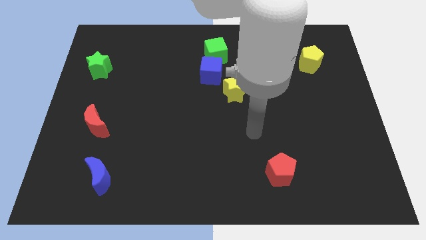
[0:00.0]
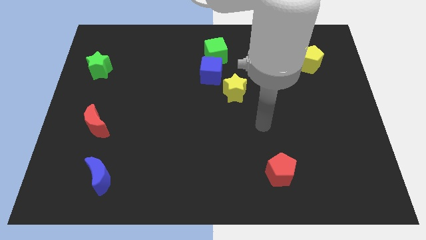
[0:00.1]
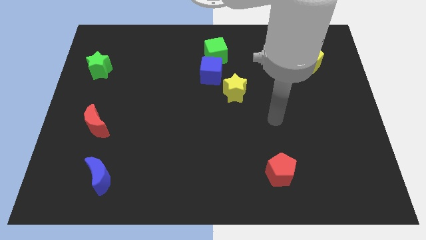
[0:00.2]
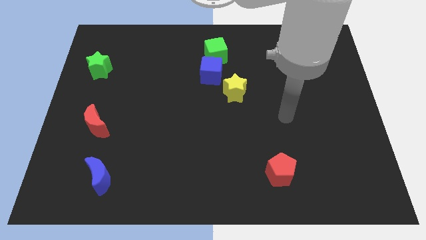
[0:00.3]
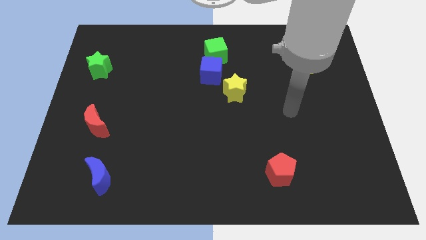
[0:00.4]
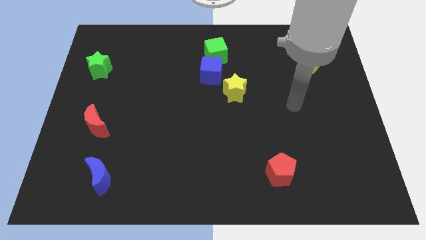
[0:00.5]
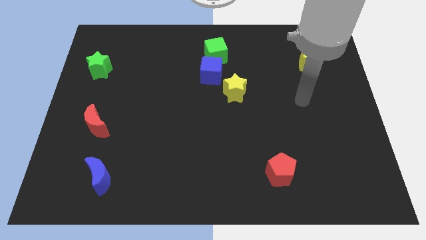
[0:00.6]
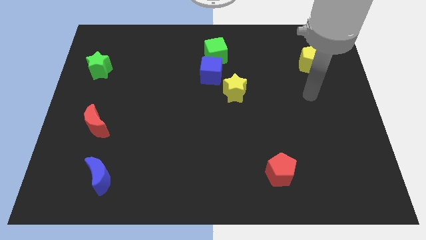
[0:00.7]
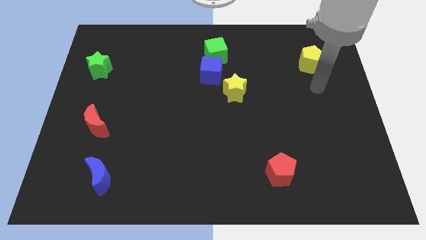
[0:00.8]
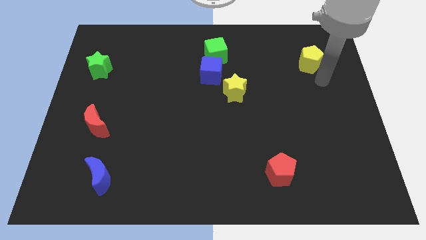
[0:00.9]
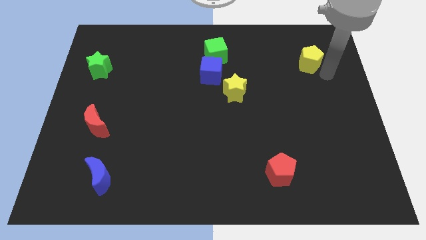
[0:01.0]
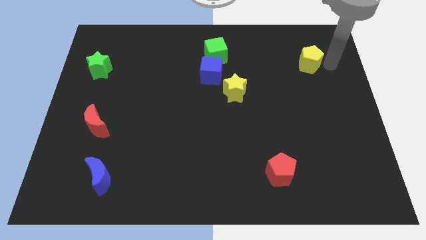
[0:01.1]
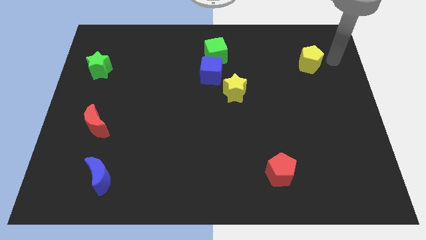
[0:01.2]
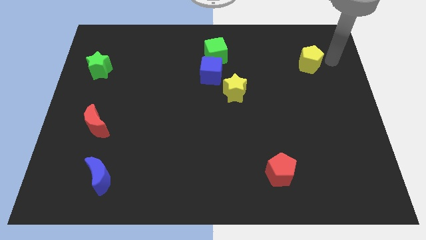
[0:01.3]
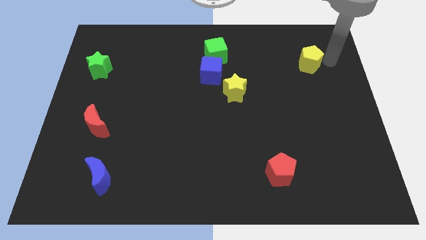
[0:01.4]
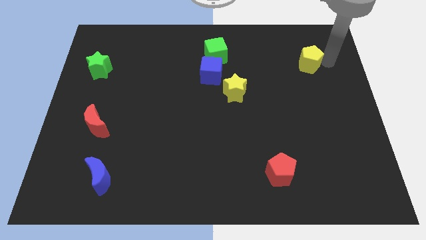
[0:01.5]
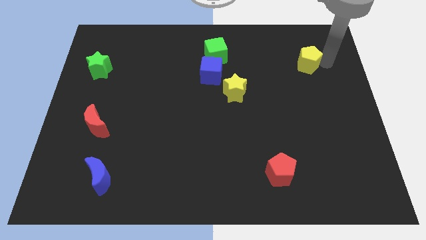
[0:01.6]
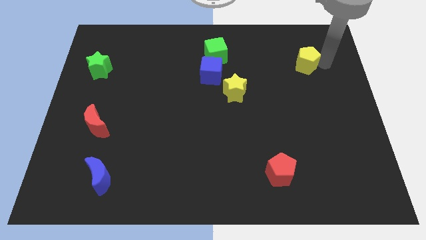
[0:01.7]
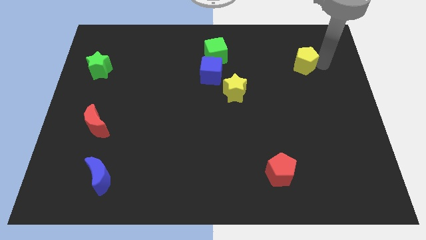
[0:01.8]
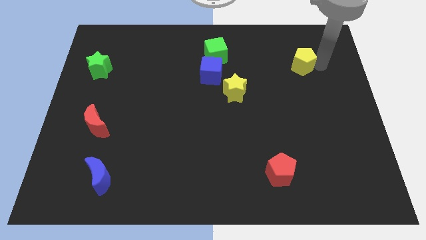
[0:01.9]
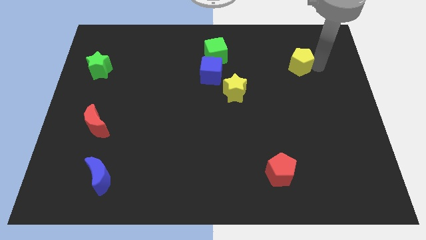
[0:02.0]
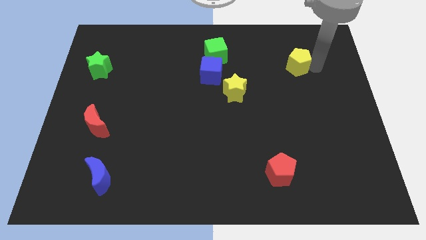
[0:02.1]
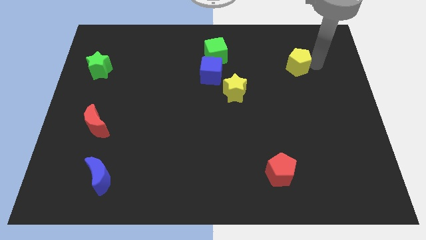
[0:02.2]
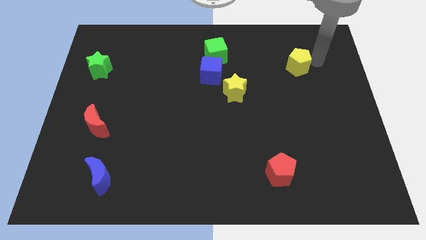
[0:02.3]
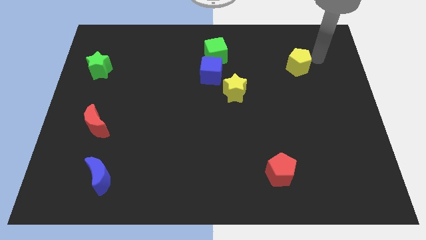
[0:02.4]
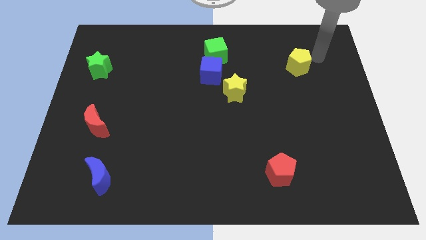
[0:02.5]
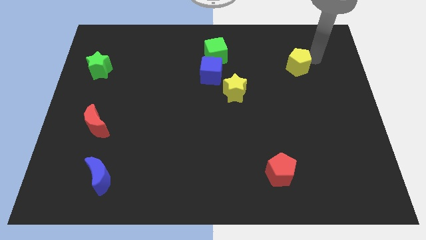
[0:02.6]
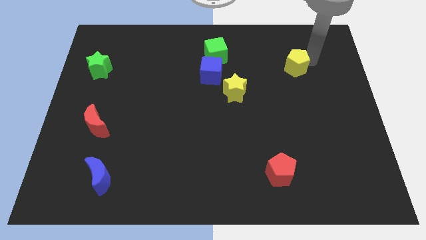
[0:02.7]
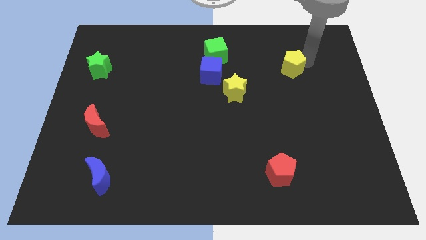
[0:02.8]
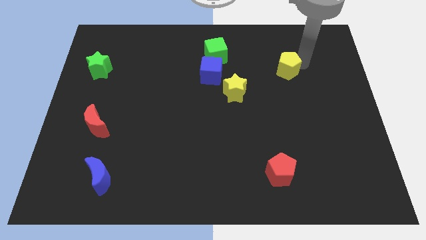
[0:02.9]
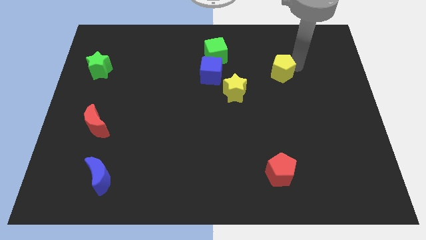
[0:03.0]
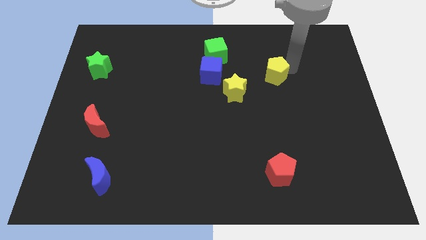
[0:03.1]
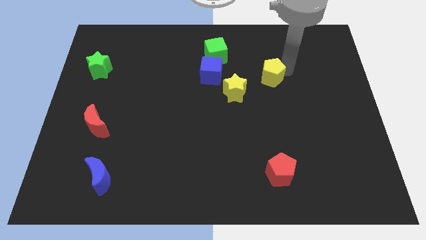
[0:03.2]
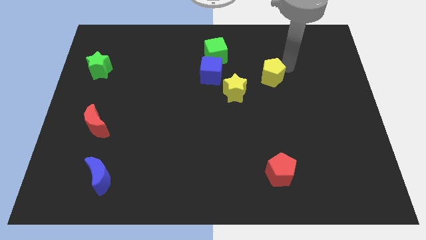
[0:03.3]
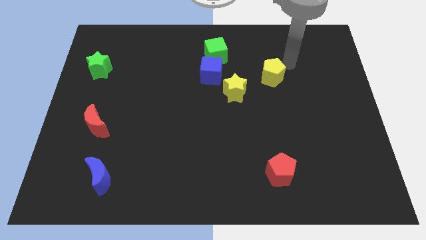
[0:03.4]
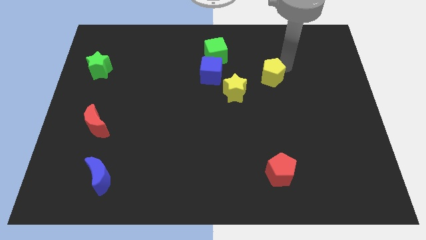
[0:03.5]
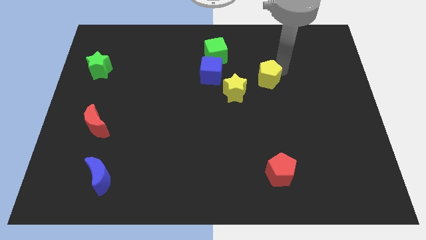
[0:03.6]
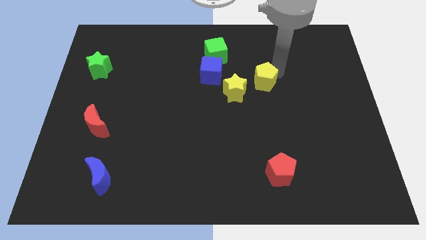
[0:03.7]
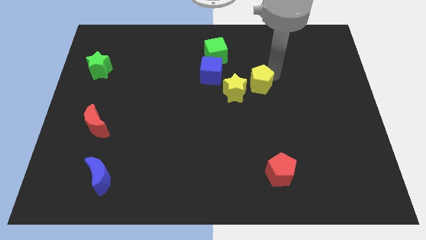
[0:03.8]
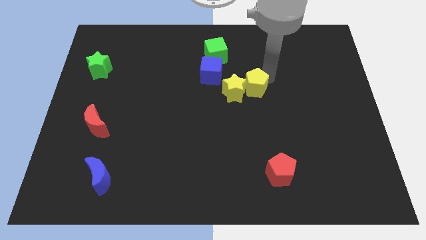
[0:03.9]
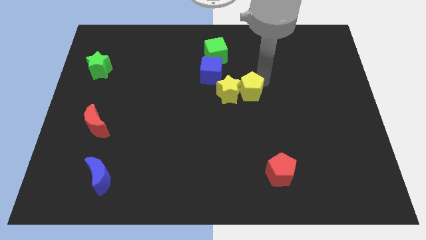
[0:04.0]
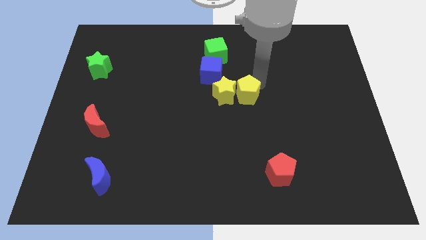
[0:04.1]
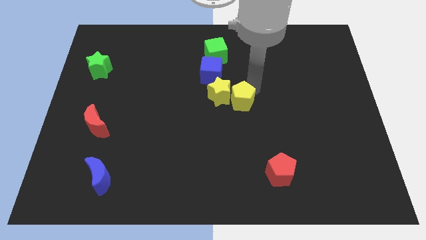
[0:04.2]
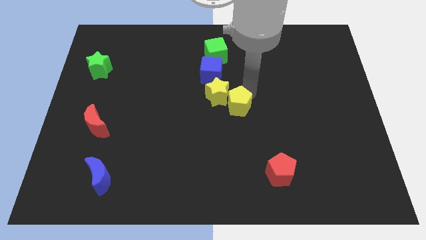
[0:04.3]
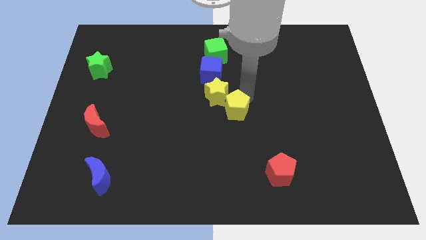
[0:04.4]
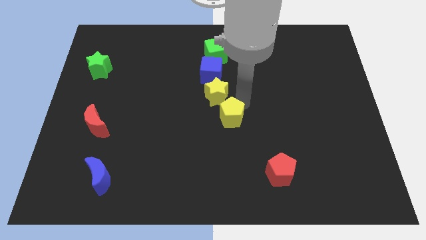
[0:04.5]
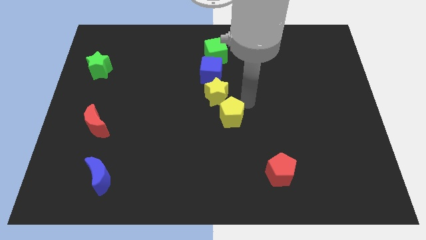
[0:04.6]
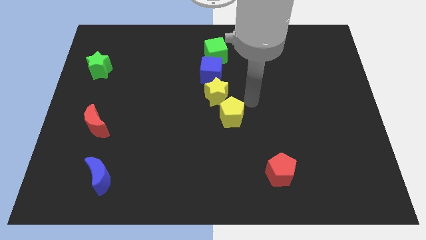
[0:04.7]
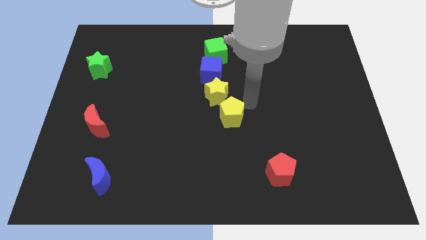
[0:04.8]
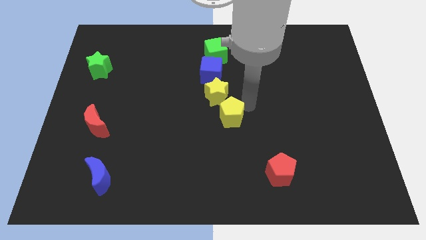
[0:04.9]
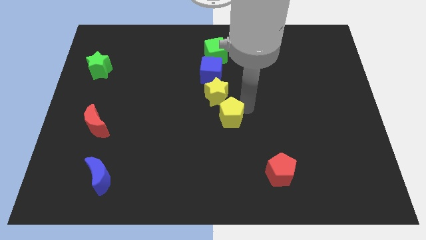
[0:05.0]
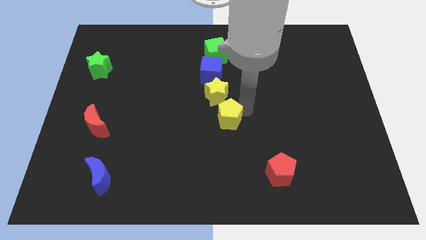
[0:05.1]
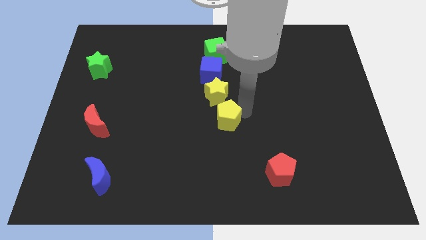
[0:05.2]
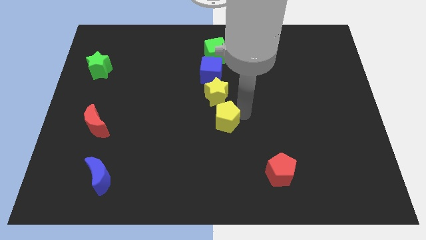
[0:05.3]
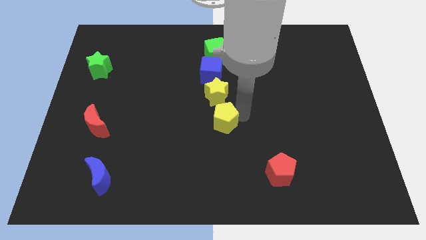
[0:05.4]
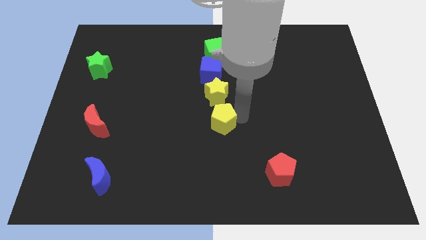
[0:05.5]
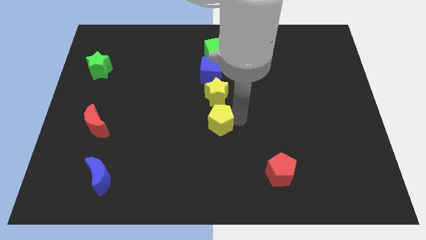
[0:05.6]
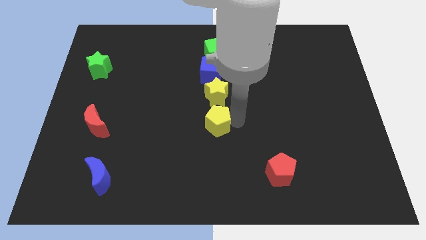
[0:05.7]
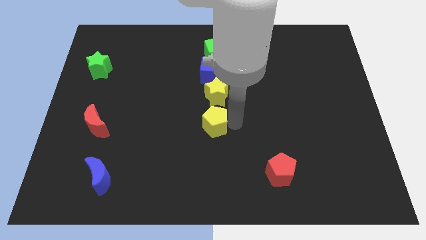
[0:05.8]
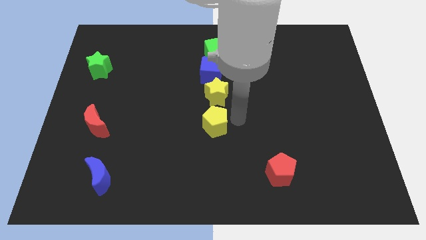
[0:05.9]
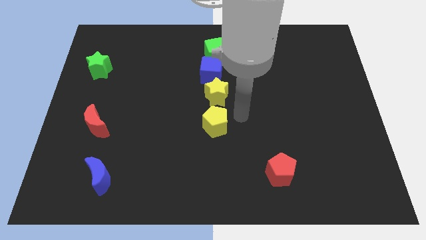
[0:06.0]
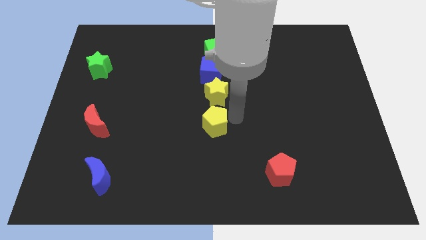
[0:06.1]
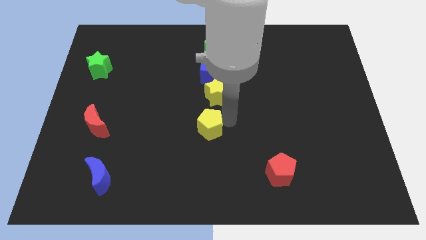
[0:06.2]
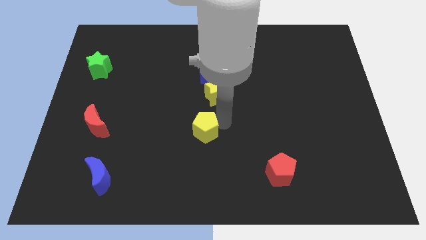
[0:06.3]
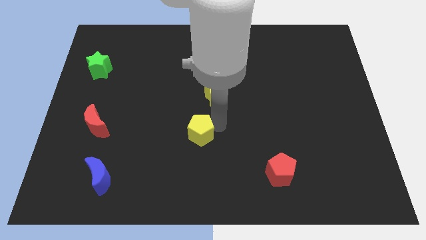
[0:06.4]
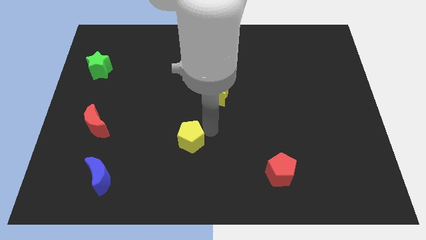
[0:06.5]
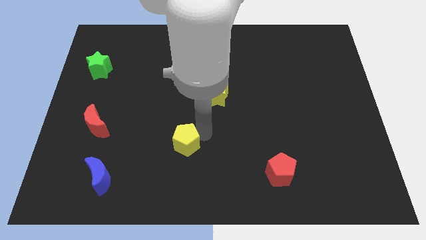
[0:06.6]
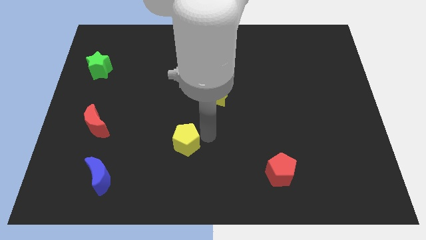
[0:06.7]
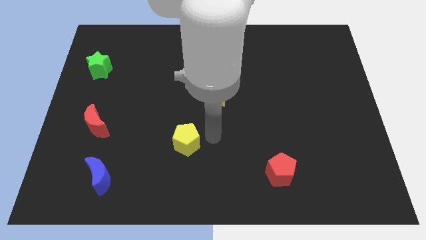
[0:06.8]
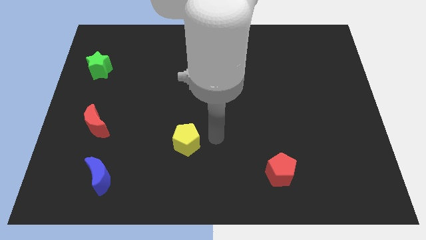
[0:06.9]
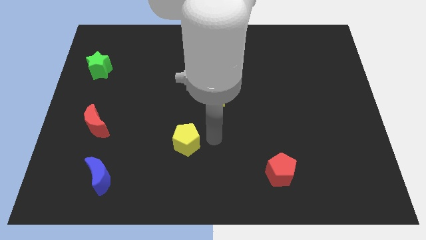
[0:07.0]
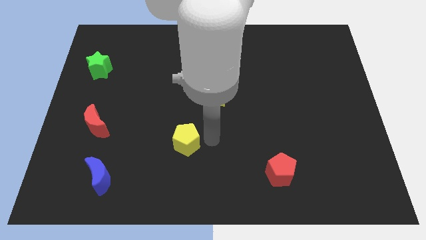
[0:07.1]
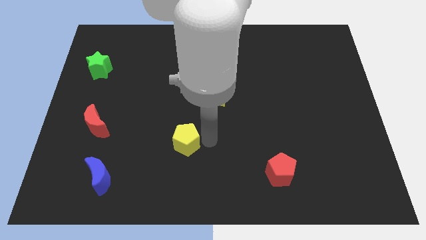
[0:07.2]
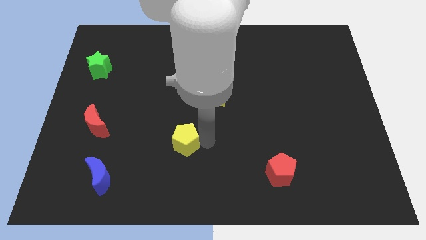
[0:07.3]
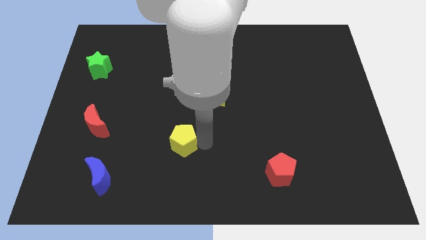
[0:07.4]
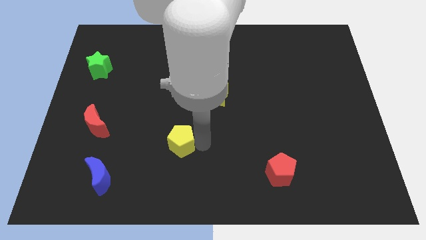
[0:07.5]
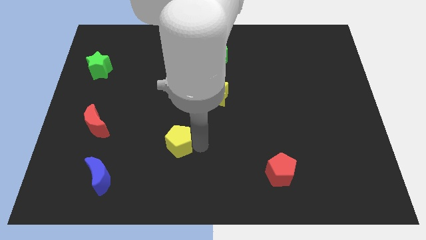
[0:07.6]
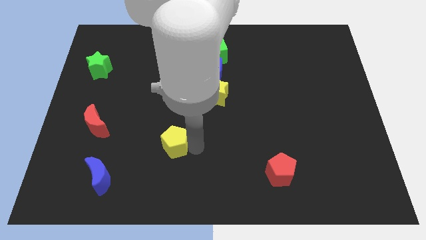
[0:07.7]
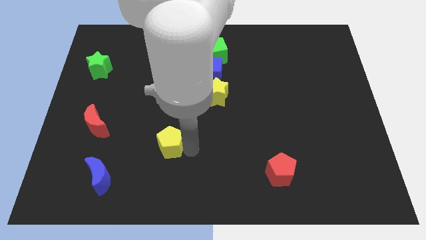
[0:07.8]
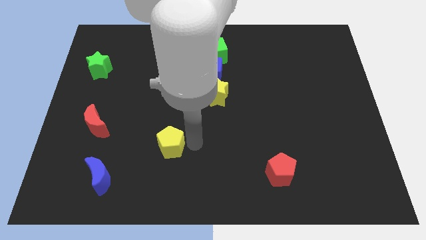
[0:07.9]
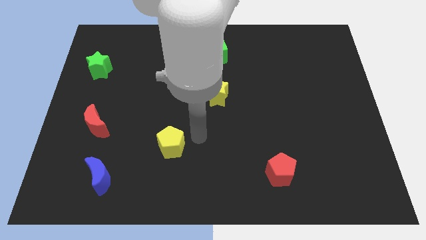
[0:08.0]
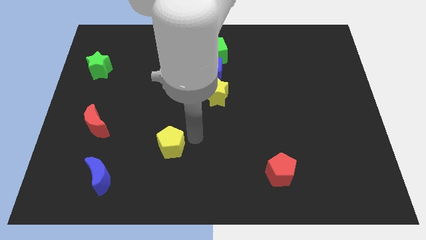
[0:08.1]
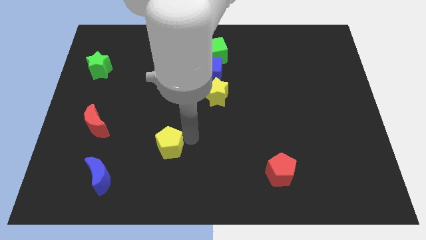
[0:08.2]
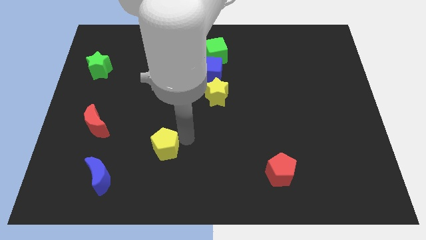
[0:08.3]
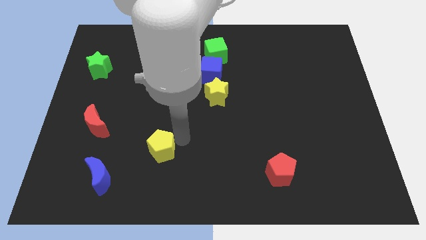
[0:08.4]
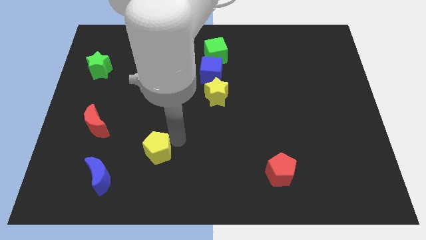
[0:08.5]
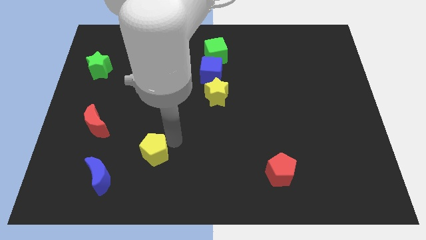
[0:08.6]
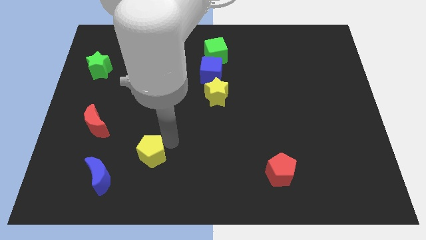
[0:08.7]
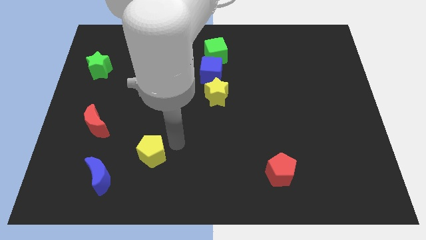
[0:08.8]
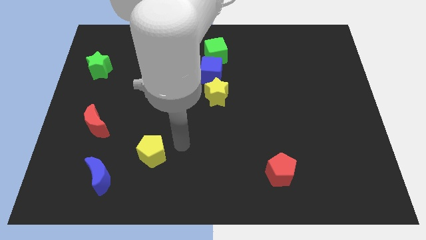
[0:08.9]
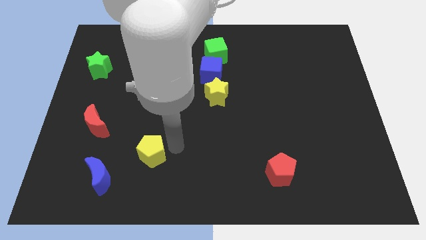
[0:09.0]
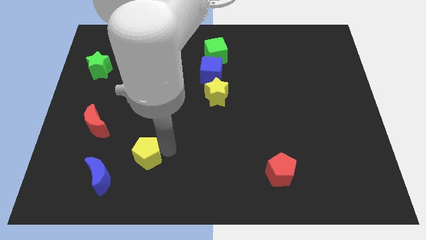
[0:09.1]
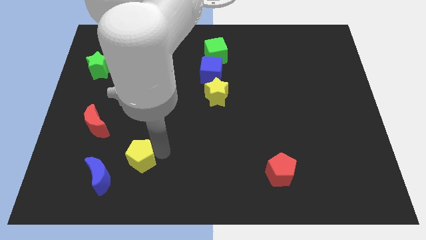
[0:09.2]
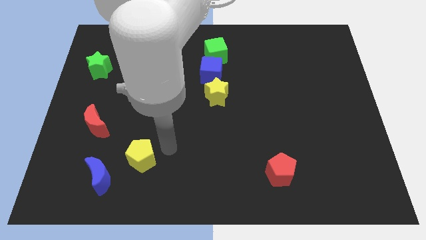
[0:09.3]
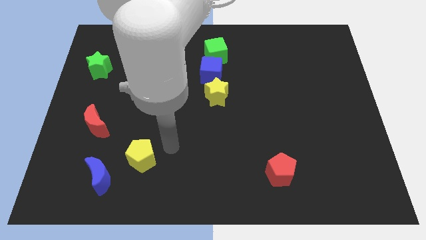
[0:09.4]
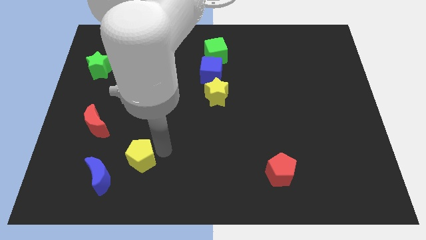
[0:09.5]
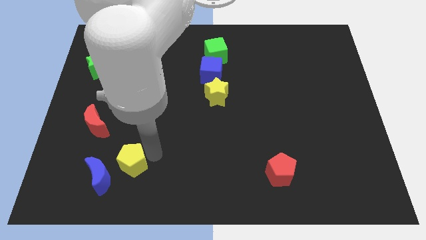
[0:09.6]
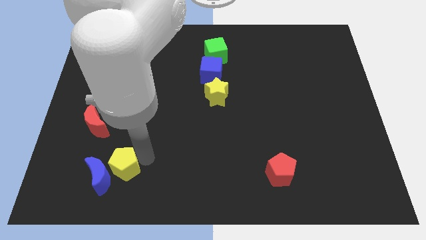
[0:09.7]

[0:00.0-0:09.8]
slide the yellow pentagon to the blue moon
